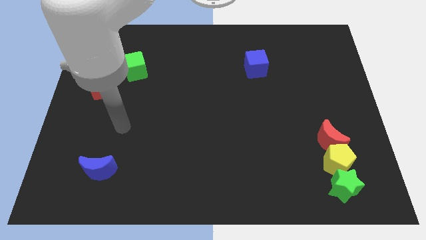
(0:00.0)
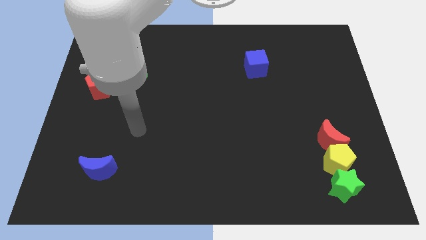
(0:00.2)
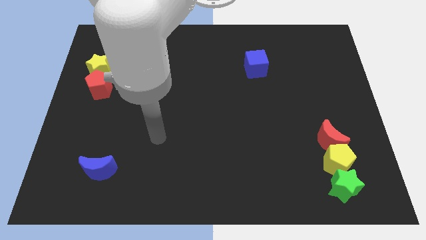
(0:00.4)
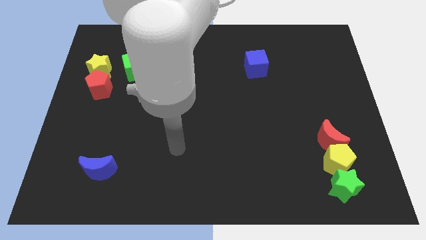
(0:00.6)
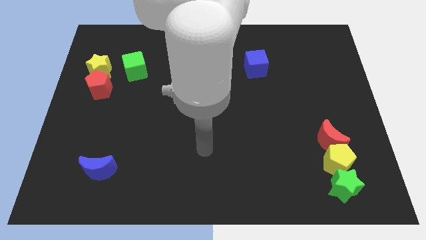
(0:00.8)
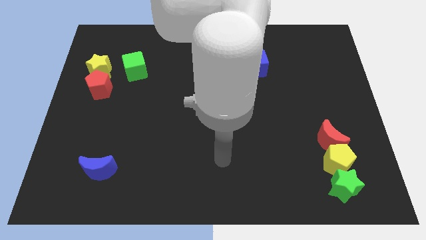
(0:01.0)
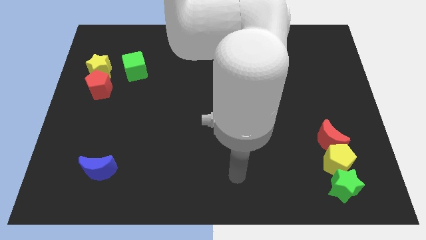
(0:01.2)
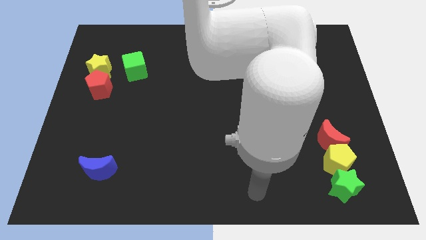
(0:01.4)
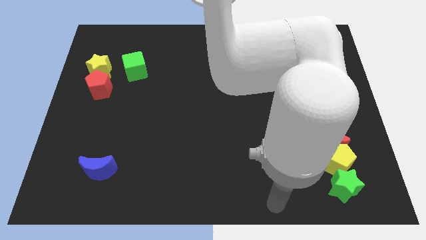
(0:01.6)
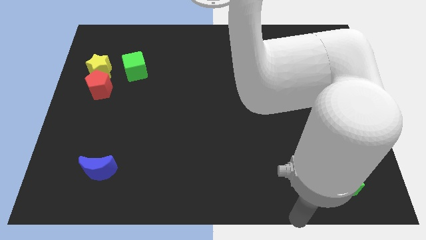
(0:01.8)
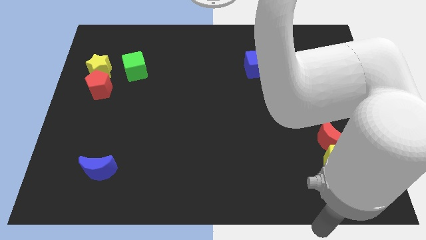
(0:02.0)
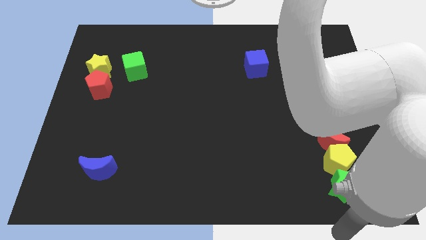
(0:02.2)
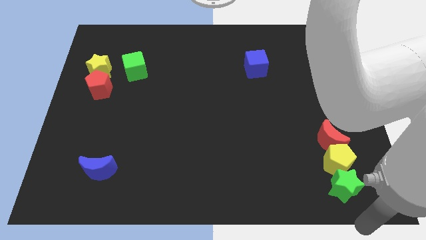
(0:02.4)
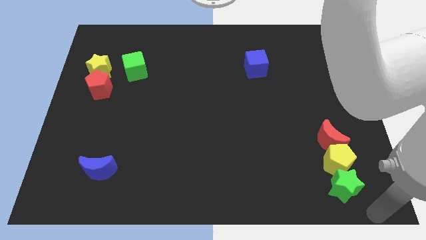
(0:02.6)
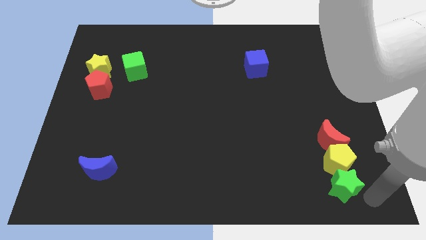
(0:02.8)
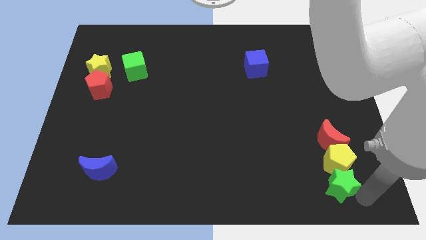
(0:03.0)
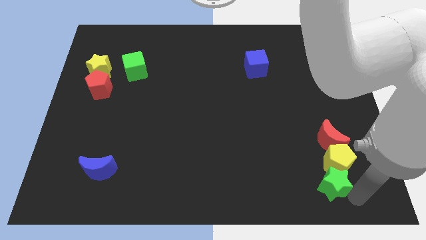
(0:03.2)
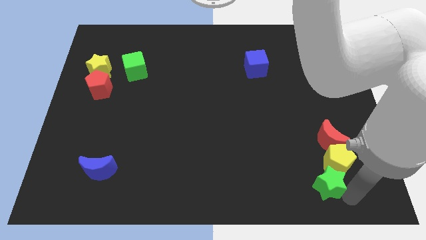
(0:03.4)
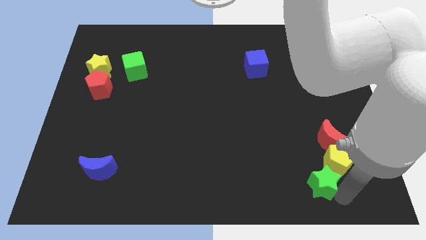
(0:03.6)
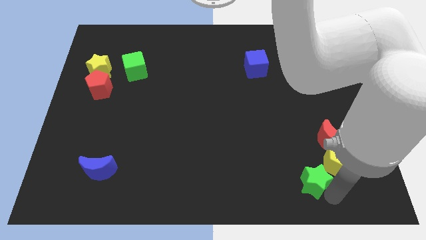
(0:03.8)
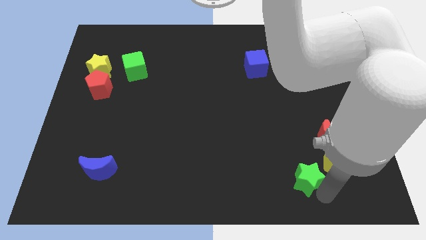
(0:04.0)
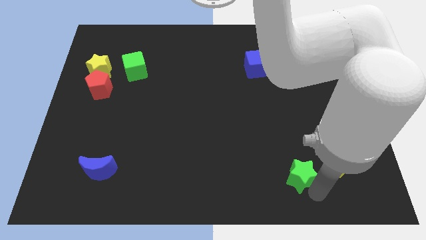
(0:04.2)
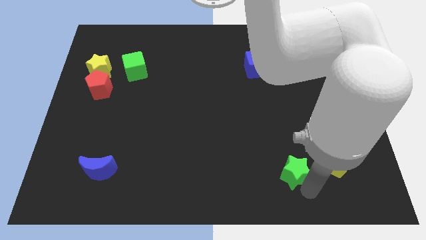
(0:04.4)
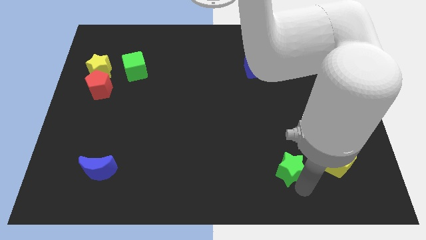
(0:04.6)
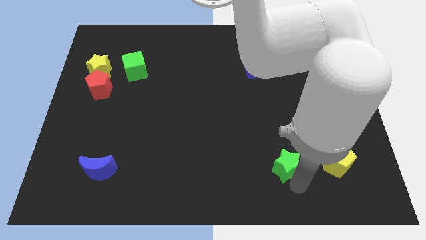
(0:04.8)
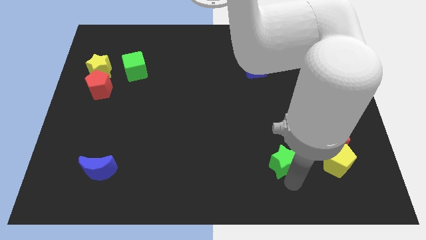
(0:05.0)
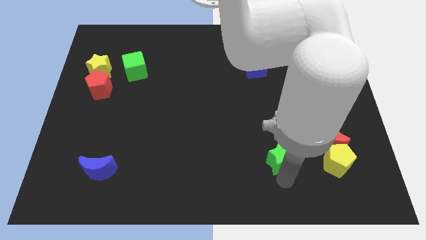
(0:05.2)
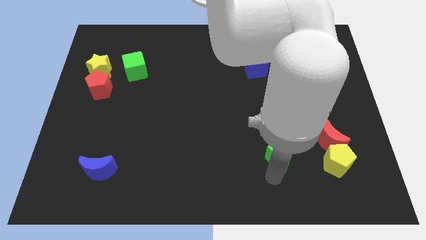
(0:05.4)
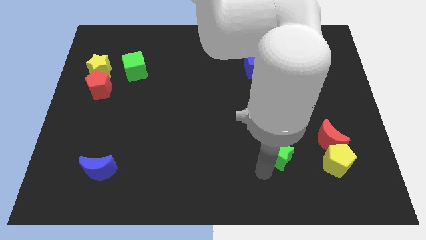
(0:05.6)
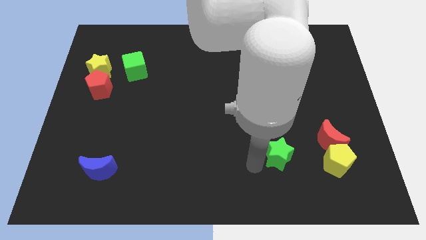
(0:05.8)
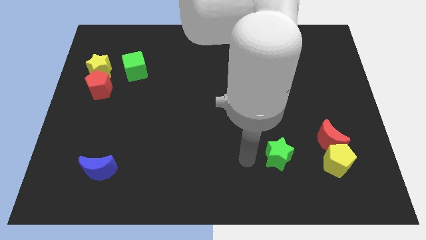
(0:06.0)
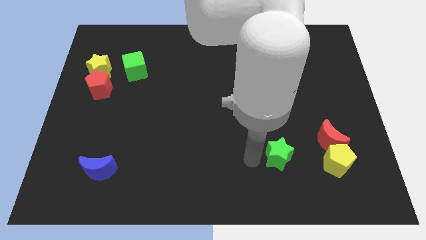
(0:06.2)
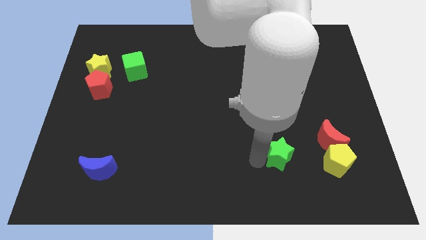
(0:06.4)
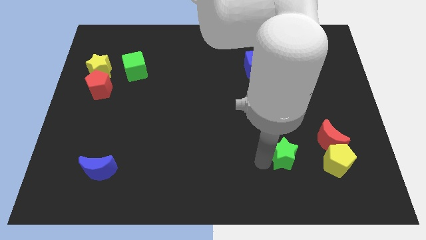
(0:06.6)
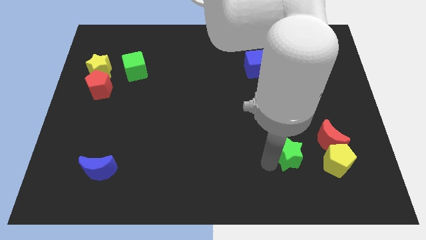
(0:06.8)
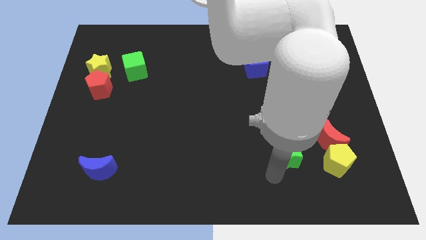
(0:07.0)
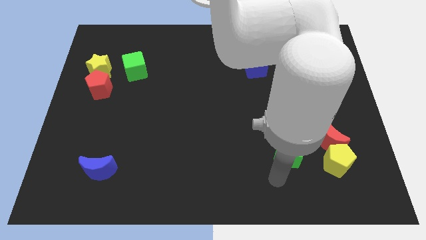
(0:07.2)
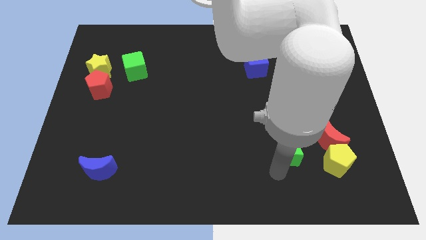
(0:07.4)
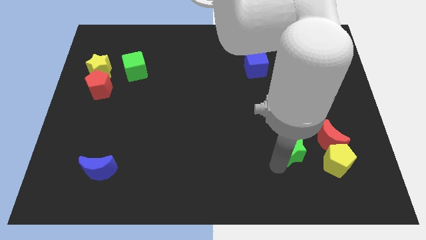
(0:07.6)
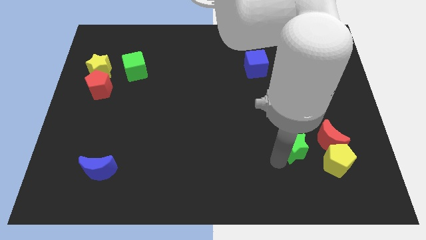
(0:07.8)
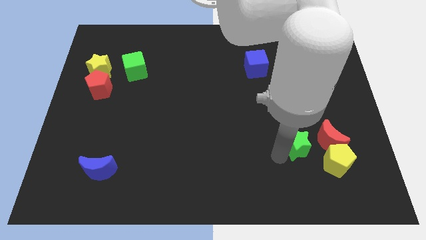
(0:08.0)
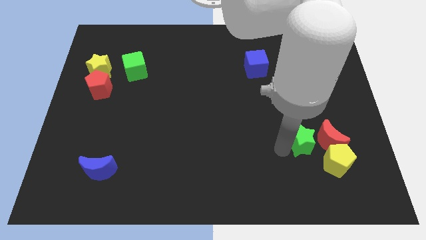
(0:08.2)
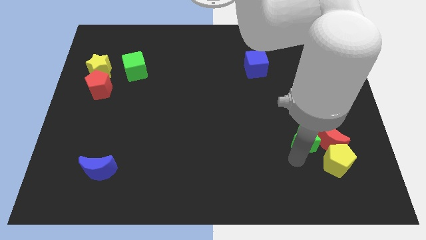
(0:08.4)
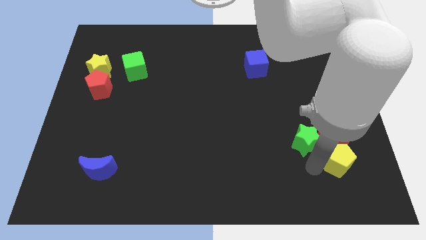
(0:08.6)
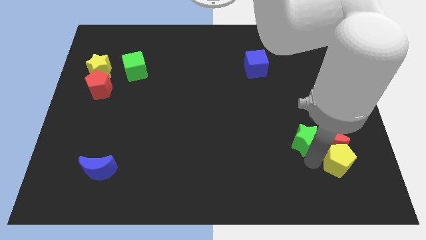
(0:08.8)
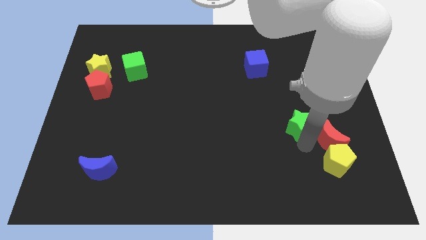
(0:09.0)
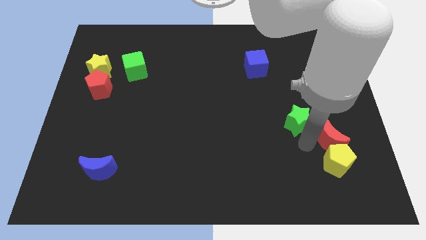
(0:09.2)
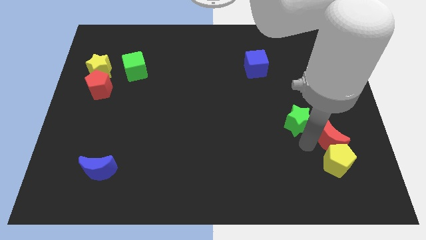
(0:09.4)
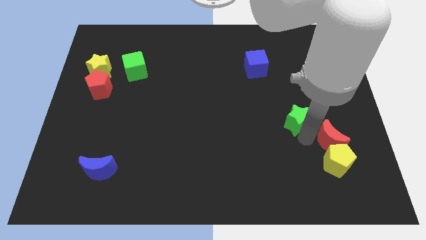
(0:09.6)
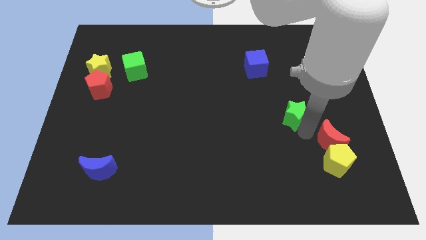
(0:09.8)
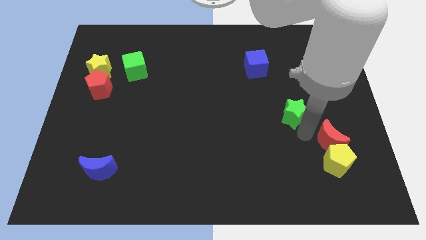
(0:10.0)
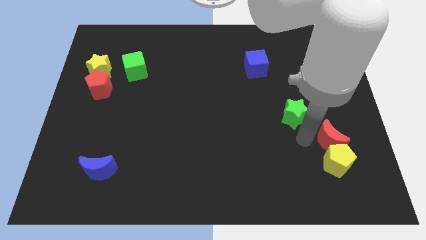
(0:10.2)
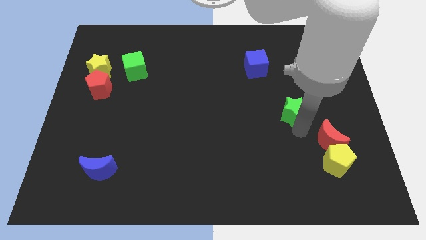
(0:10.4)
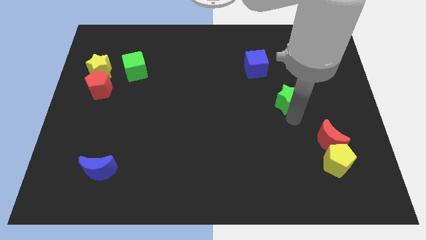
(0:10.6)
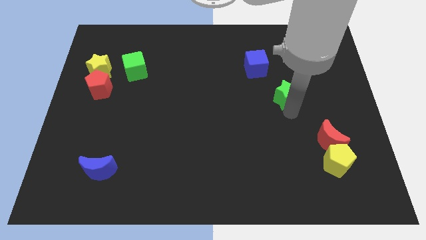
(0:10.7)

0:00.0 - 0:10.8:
move the green star to the bottom right of the blue cube

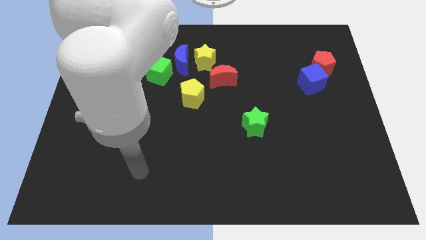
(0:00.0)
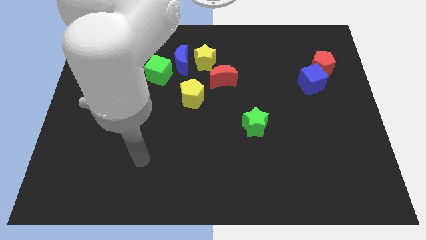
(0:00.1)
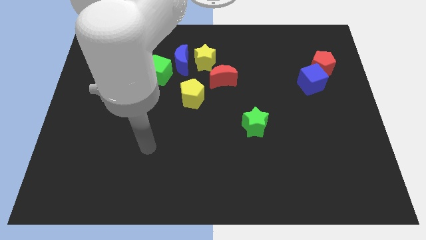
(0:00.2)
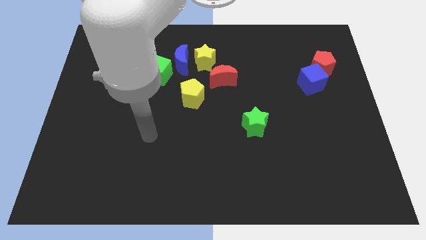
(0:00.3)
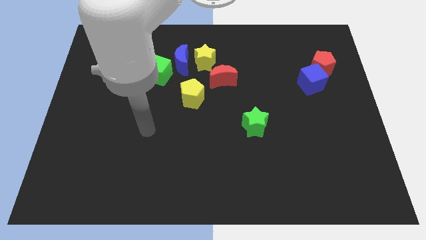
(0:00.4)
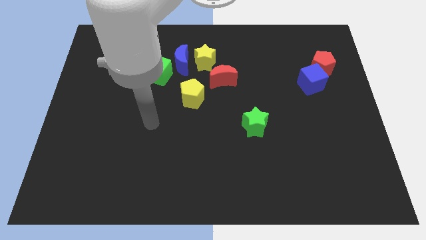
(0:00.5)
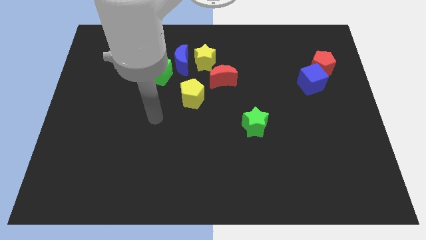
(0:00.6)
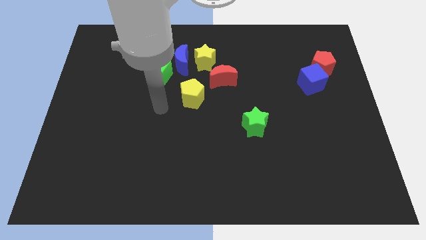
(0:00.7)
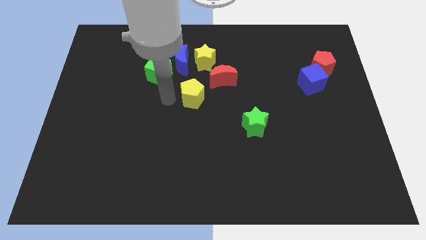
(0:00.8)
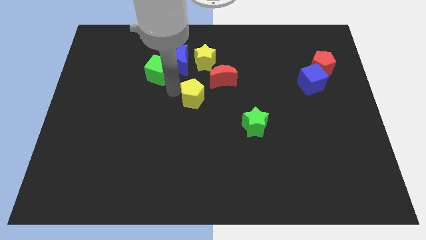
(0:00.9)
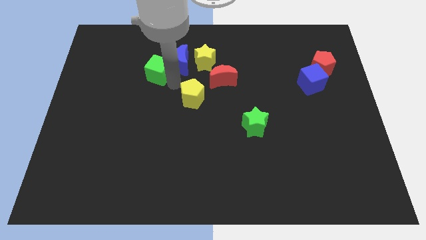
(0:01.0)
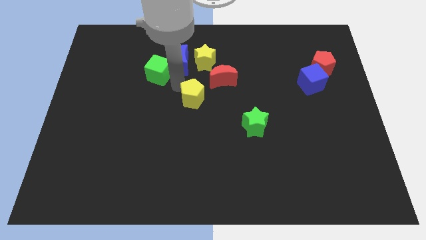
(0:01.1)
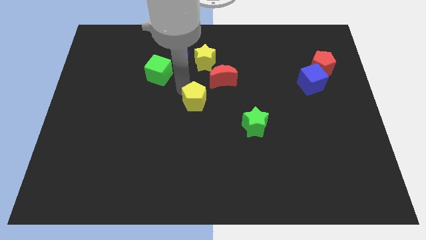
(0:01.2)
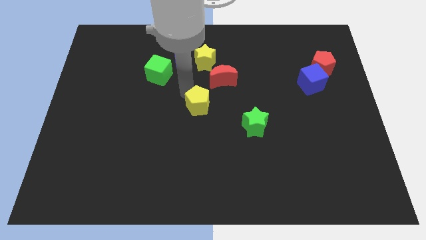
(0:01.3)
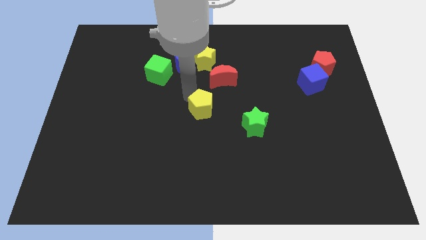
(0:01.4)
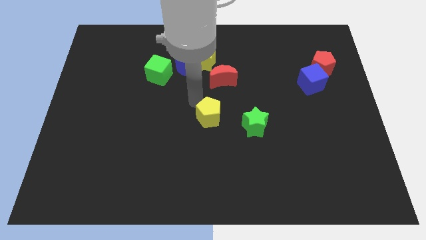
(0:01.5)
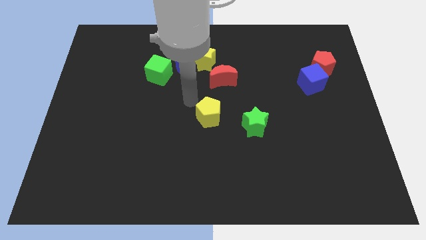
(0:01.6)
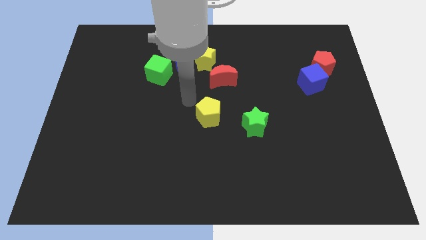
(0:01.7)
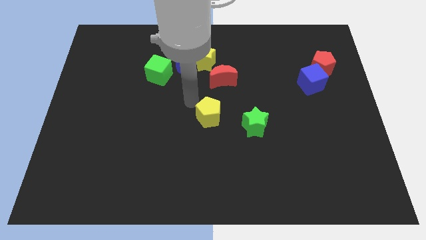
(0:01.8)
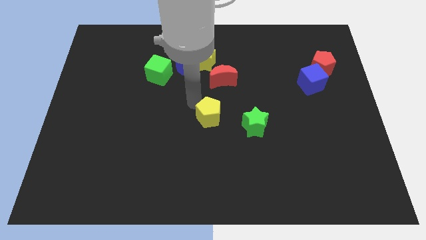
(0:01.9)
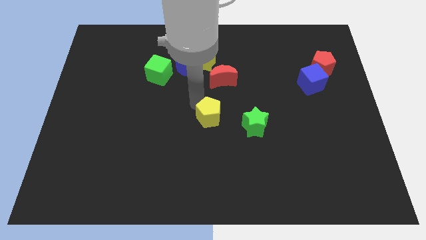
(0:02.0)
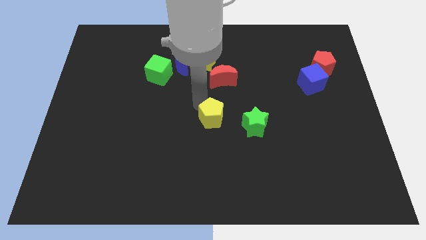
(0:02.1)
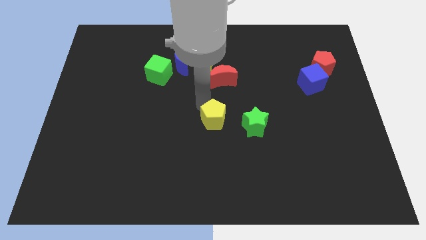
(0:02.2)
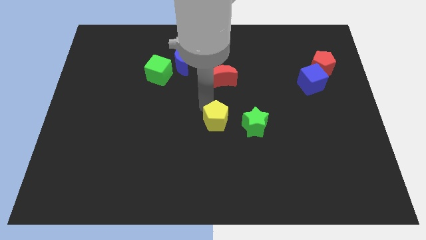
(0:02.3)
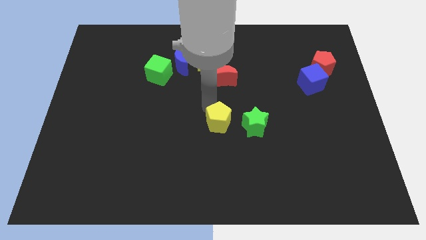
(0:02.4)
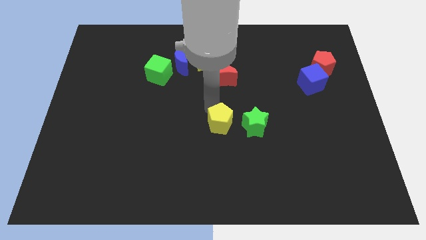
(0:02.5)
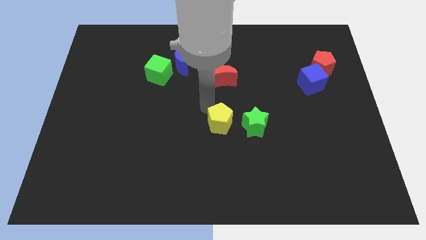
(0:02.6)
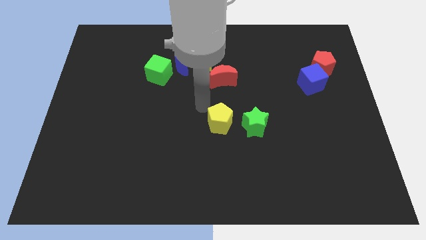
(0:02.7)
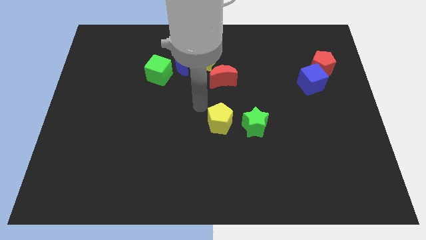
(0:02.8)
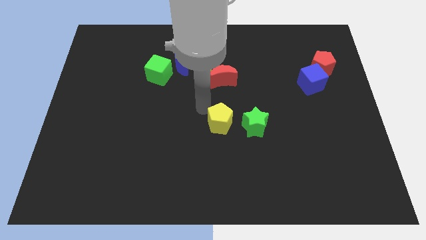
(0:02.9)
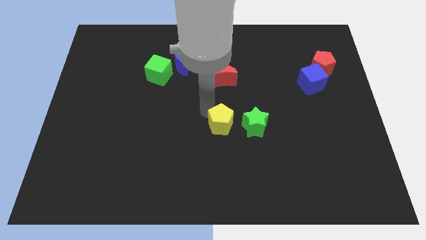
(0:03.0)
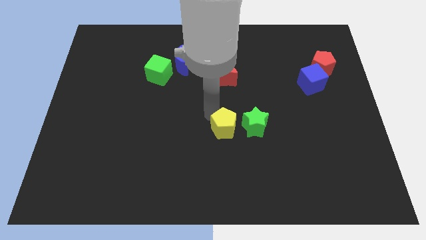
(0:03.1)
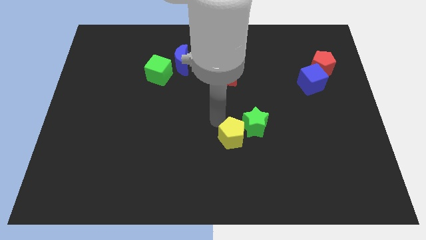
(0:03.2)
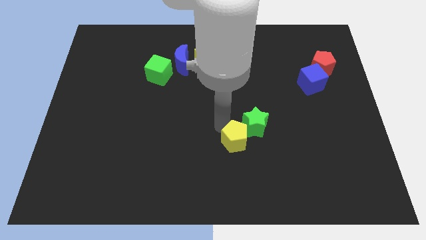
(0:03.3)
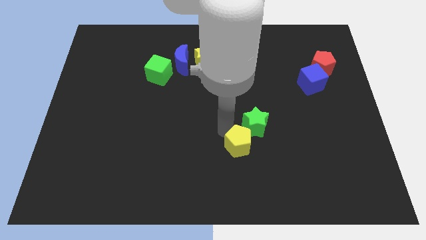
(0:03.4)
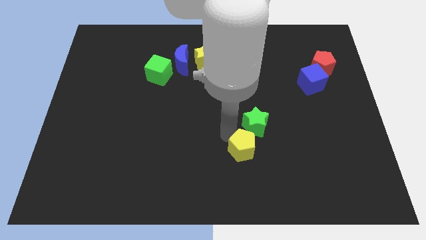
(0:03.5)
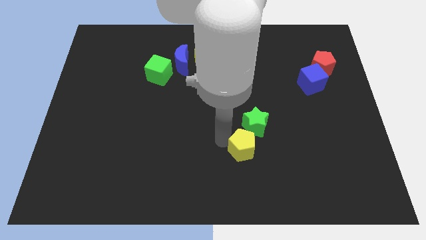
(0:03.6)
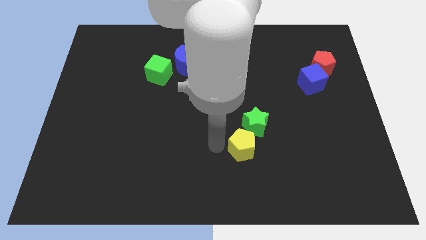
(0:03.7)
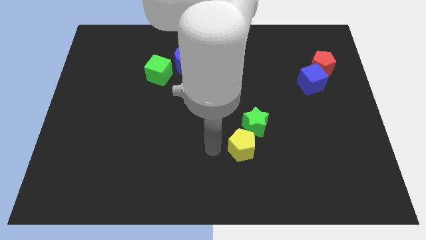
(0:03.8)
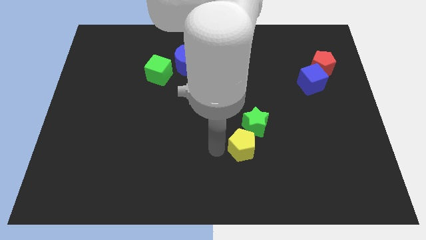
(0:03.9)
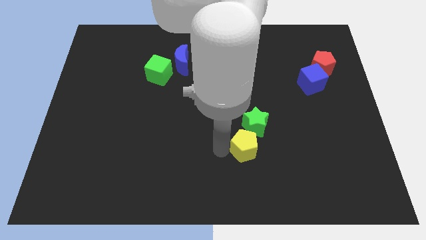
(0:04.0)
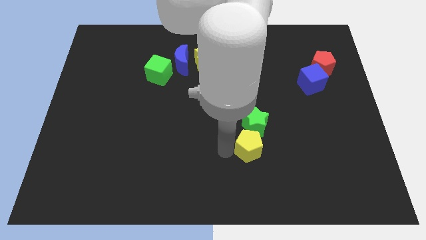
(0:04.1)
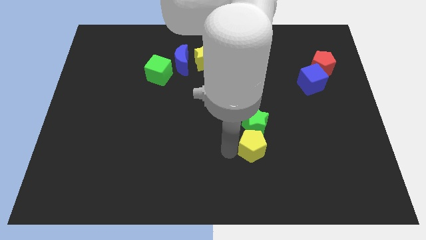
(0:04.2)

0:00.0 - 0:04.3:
push the yellow pentagon to the bottom right of the green star
